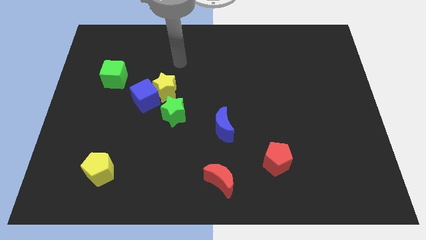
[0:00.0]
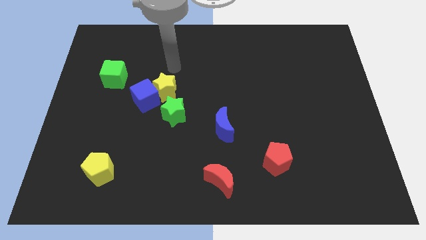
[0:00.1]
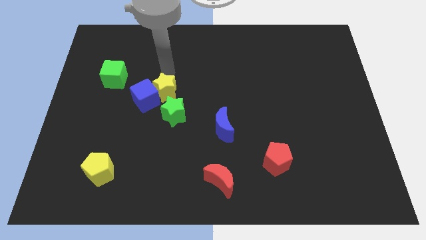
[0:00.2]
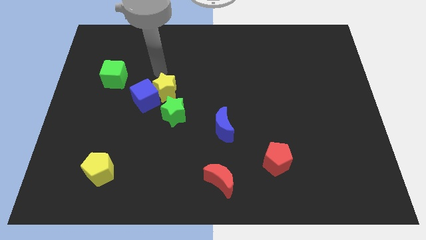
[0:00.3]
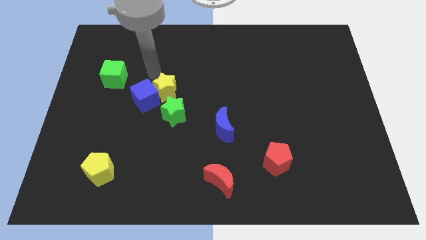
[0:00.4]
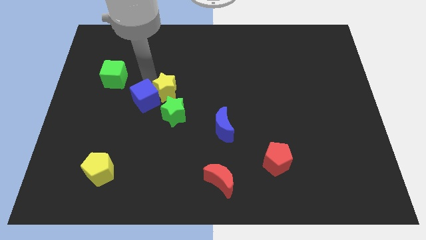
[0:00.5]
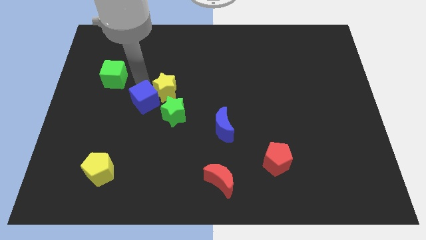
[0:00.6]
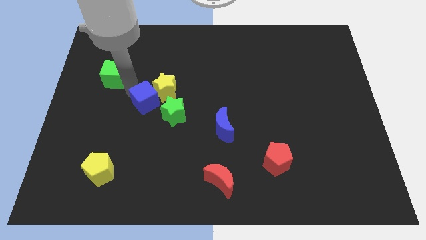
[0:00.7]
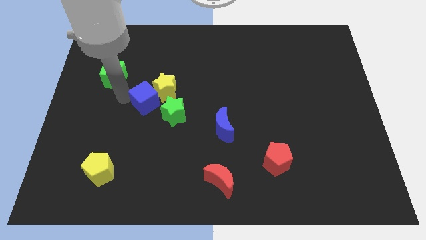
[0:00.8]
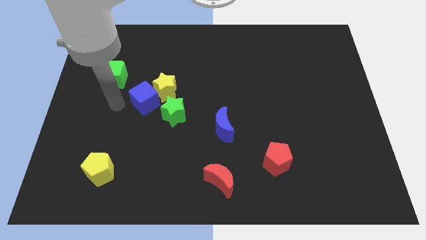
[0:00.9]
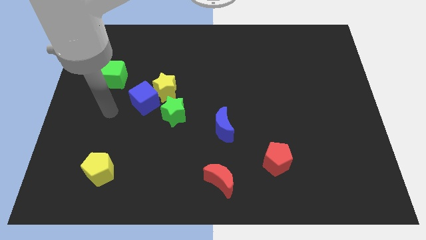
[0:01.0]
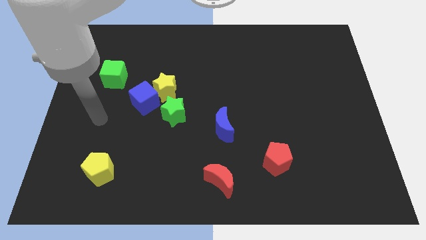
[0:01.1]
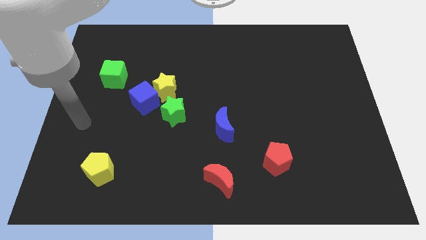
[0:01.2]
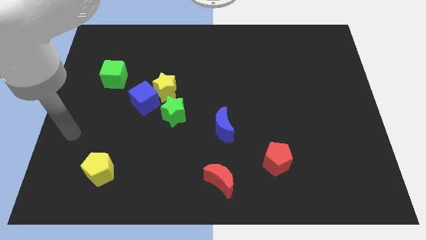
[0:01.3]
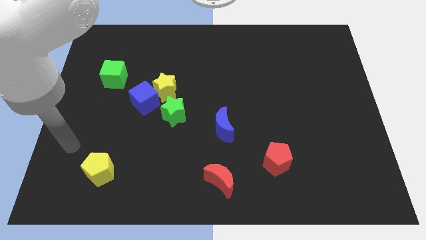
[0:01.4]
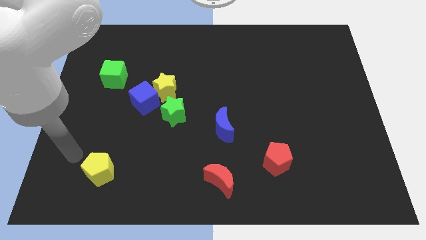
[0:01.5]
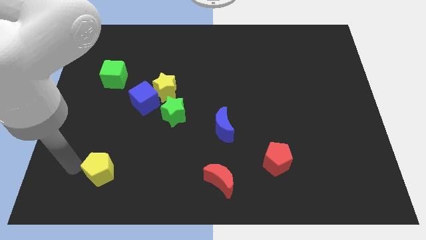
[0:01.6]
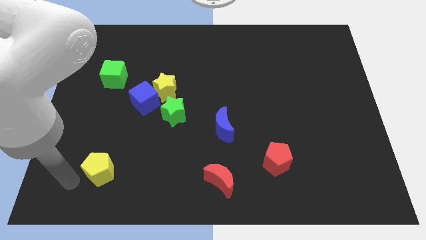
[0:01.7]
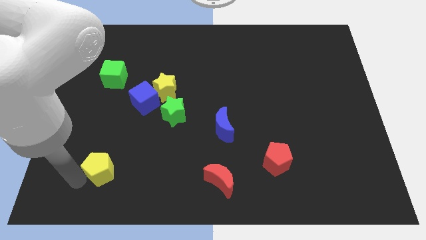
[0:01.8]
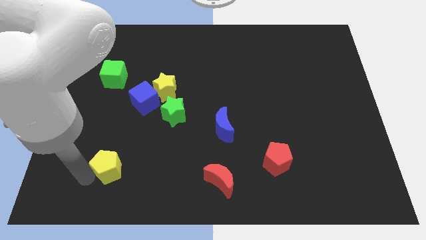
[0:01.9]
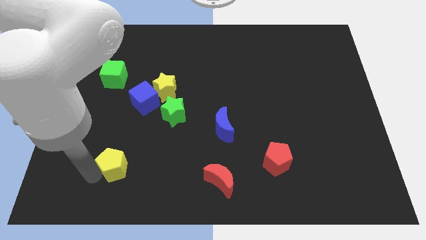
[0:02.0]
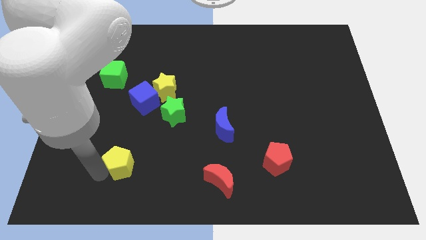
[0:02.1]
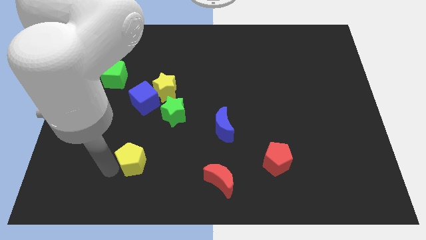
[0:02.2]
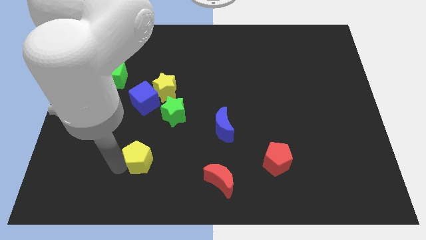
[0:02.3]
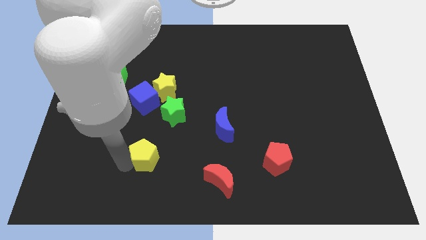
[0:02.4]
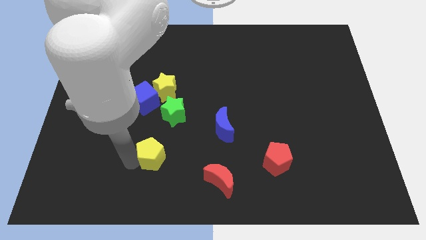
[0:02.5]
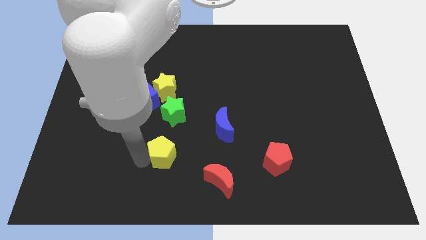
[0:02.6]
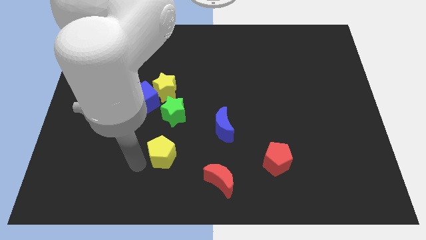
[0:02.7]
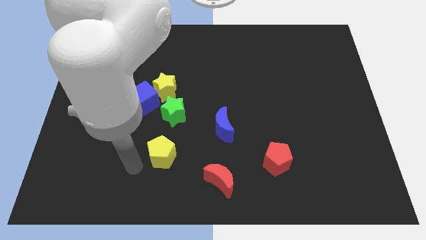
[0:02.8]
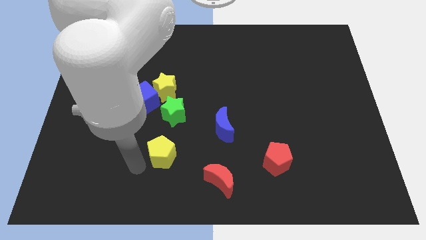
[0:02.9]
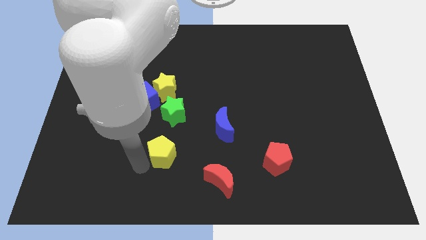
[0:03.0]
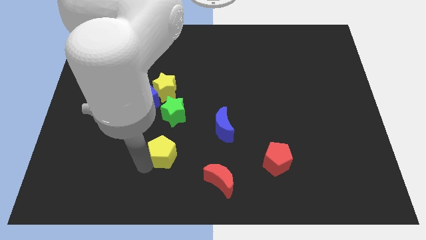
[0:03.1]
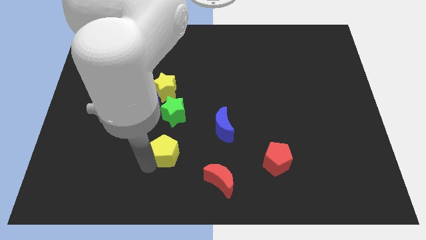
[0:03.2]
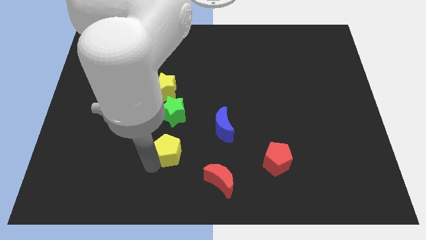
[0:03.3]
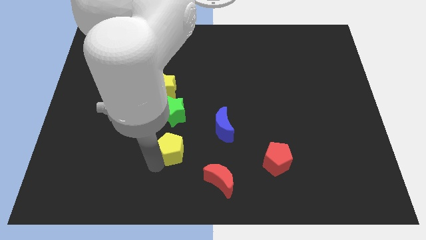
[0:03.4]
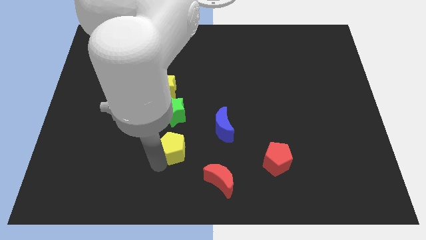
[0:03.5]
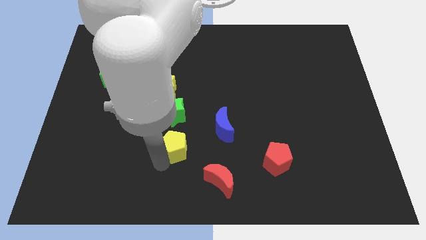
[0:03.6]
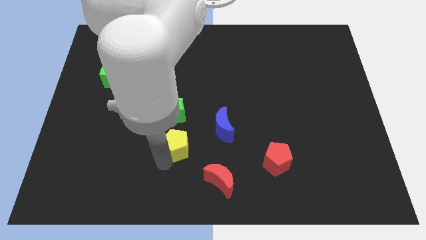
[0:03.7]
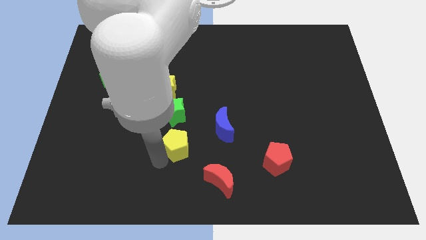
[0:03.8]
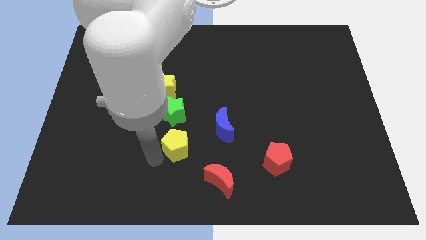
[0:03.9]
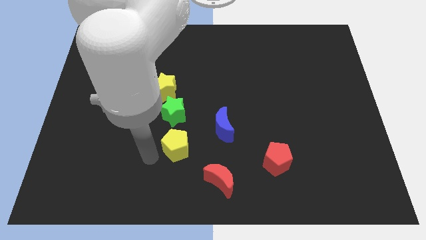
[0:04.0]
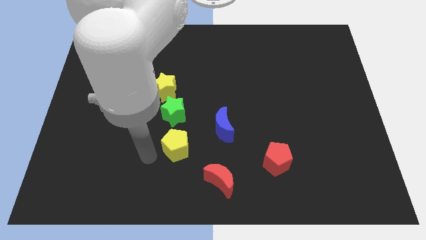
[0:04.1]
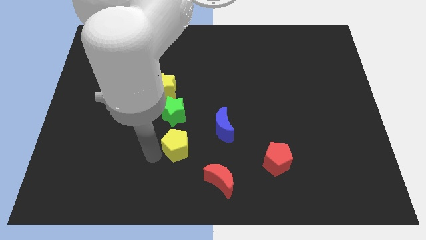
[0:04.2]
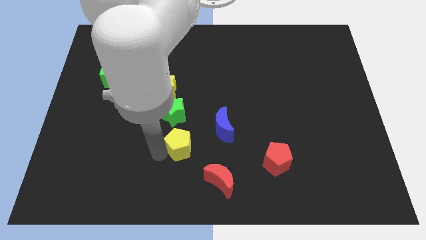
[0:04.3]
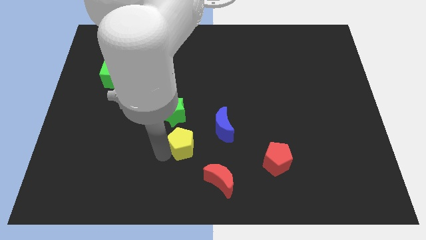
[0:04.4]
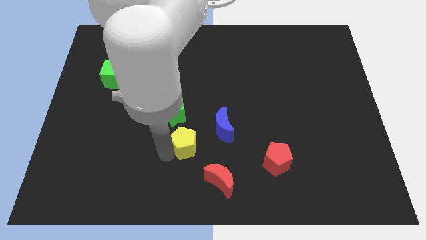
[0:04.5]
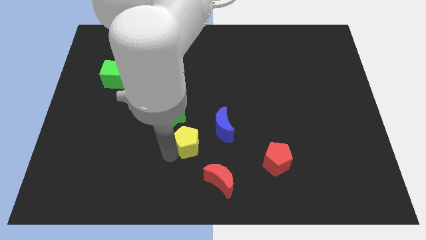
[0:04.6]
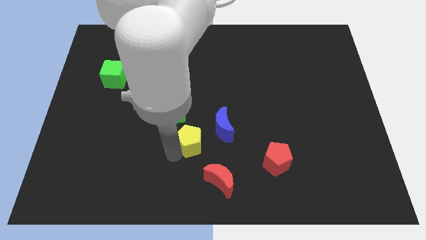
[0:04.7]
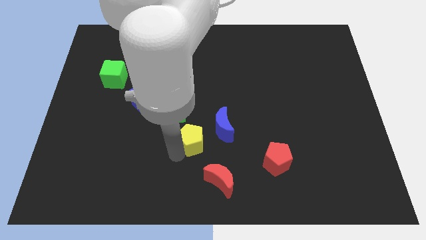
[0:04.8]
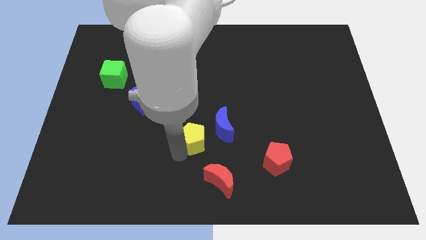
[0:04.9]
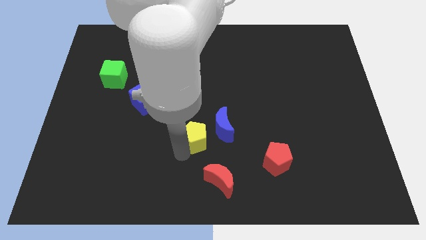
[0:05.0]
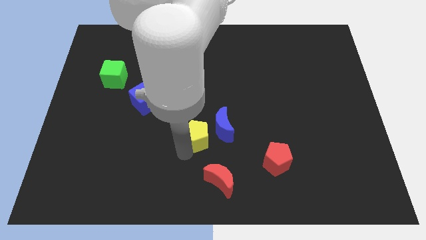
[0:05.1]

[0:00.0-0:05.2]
slide the yellow pentagon next to the blue moon

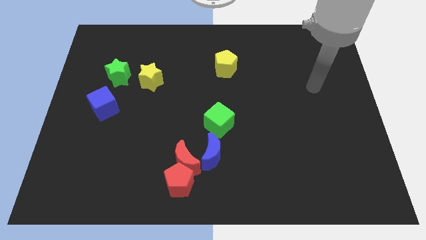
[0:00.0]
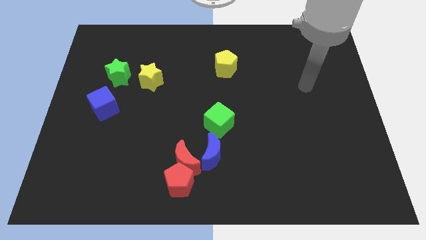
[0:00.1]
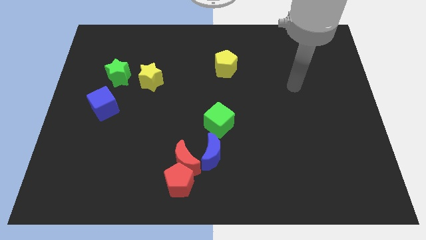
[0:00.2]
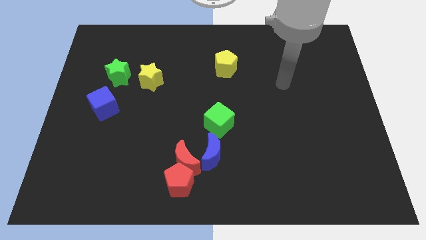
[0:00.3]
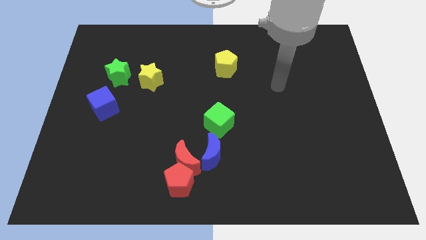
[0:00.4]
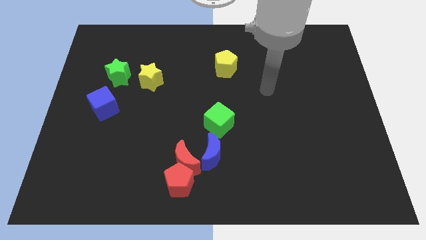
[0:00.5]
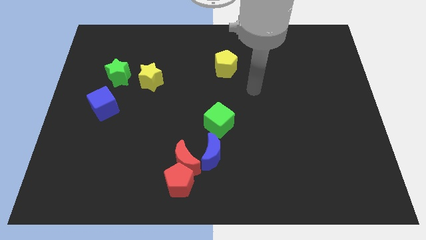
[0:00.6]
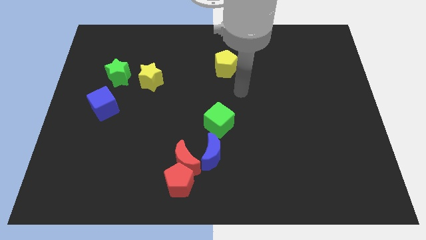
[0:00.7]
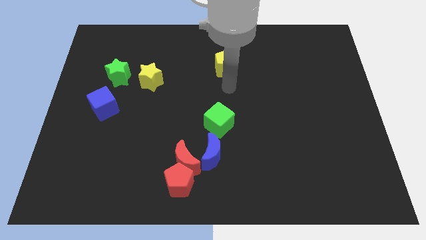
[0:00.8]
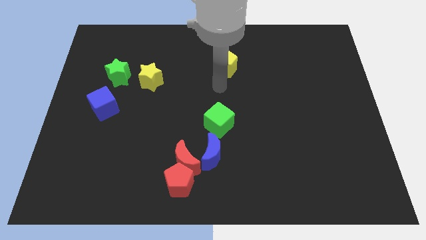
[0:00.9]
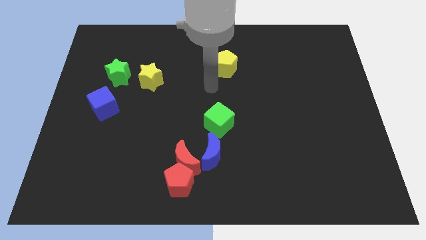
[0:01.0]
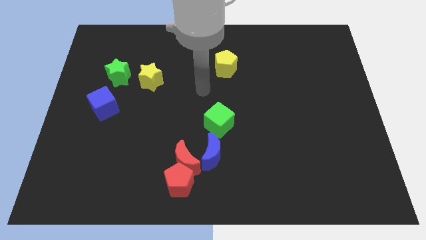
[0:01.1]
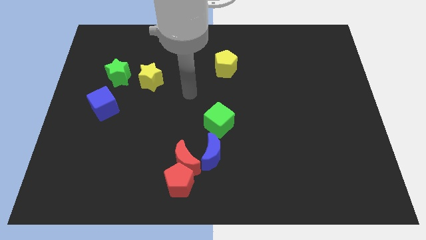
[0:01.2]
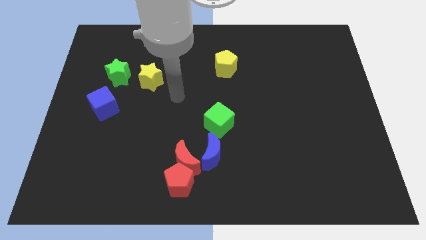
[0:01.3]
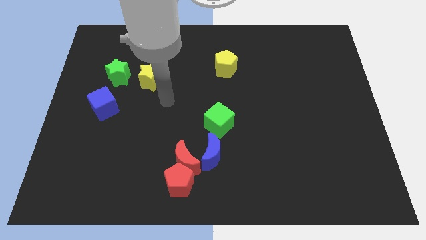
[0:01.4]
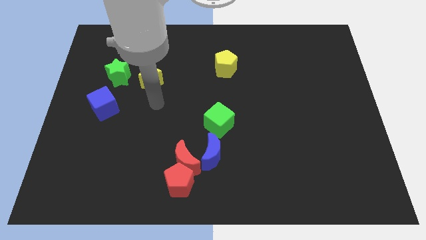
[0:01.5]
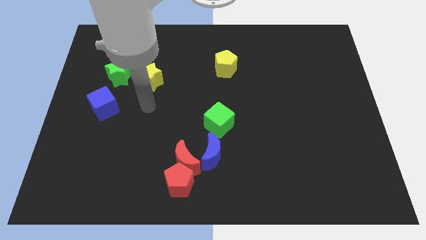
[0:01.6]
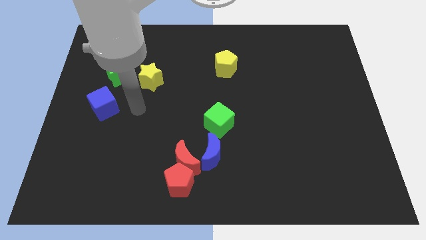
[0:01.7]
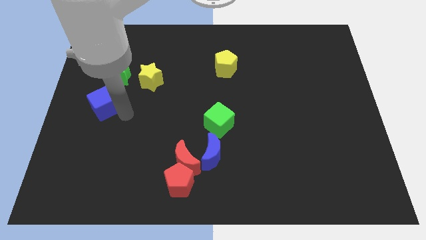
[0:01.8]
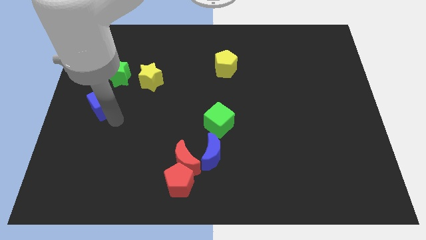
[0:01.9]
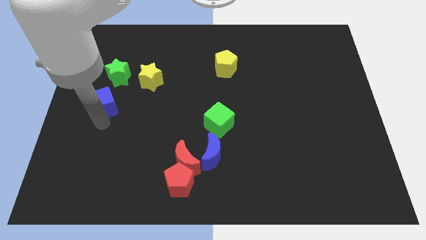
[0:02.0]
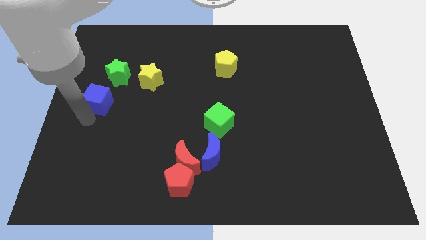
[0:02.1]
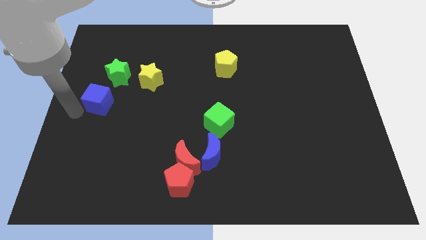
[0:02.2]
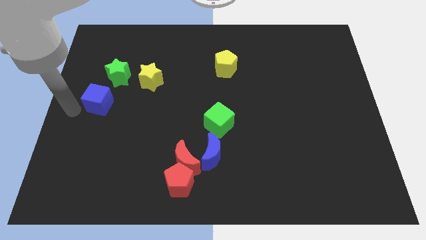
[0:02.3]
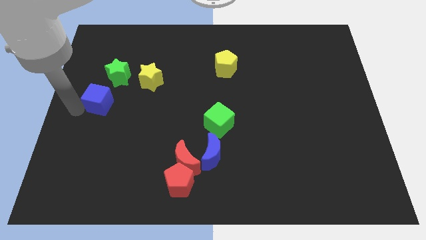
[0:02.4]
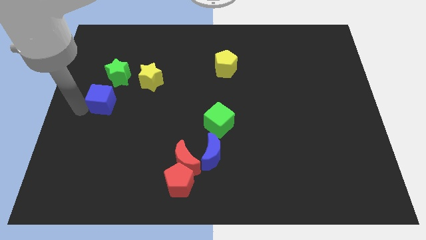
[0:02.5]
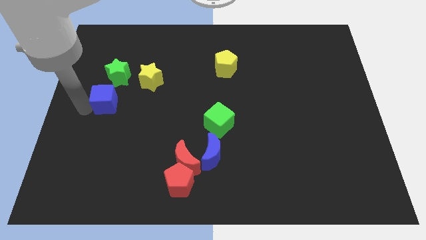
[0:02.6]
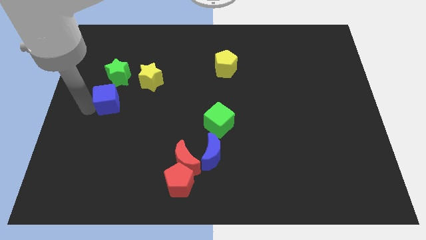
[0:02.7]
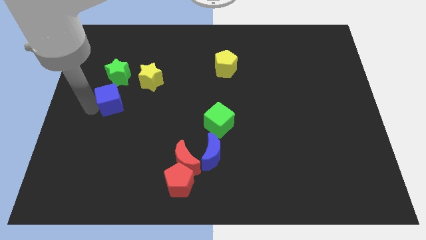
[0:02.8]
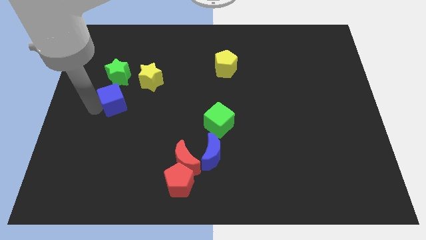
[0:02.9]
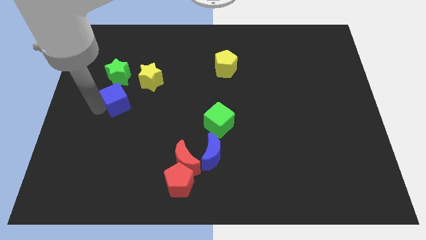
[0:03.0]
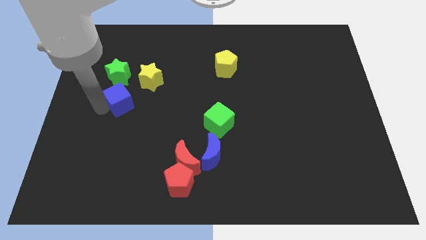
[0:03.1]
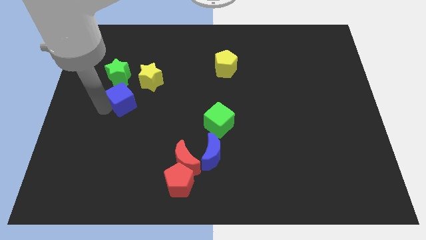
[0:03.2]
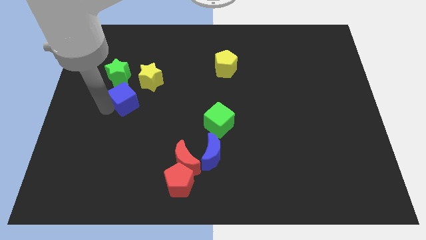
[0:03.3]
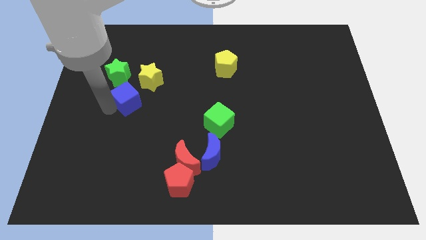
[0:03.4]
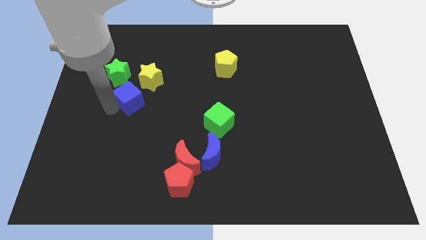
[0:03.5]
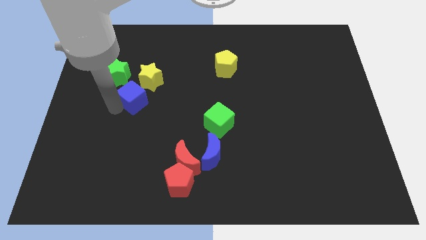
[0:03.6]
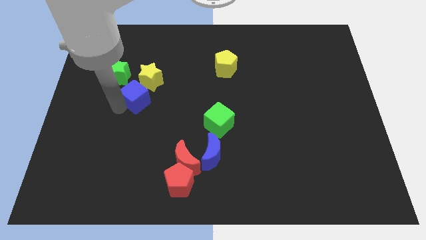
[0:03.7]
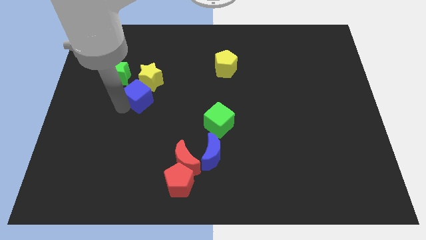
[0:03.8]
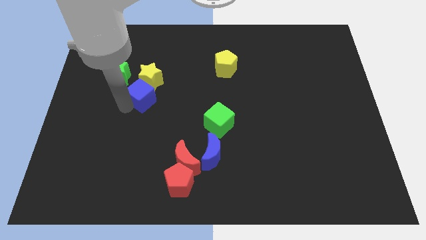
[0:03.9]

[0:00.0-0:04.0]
move the blue cube to the yellow star
